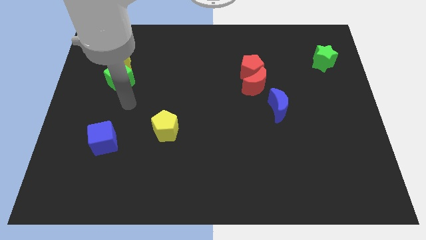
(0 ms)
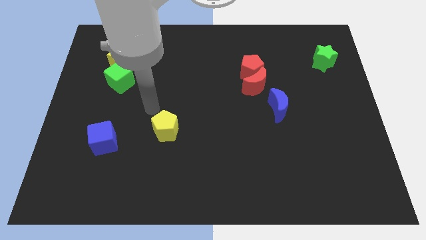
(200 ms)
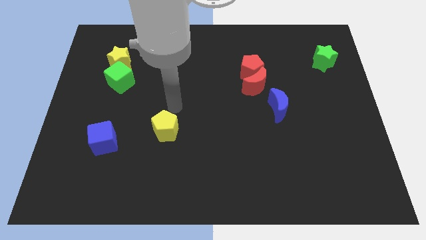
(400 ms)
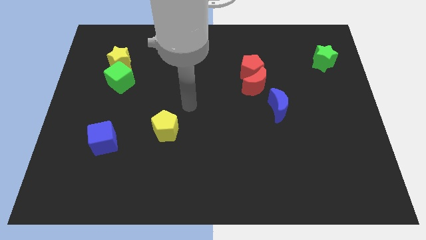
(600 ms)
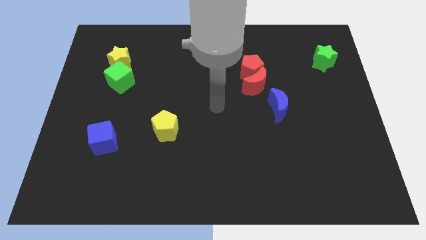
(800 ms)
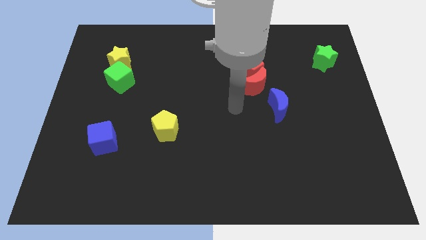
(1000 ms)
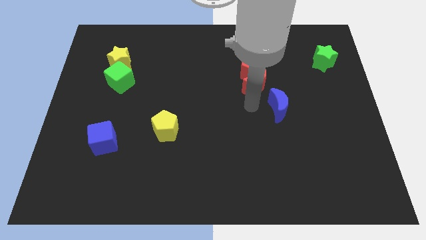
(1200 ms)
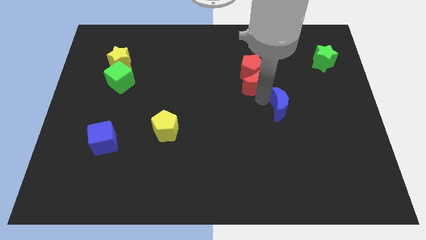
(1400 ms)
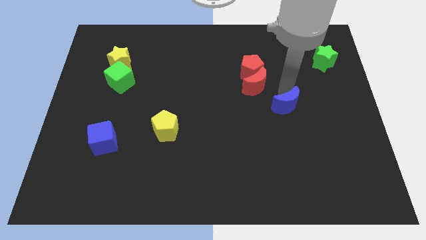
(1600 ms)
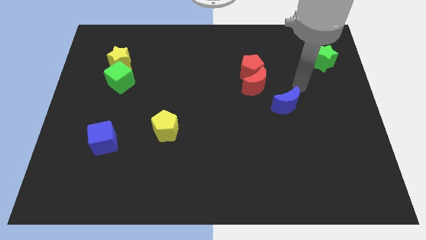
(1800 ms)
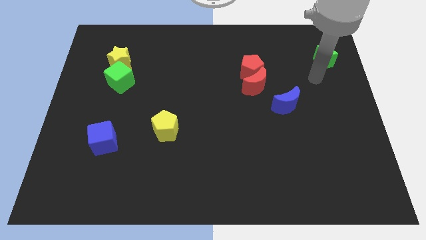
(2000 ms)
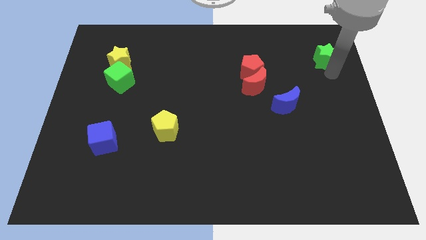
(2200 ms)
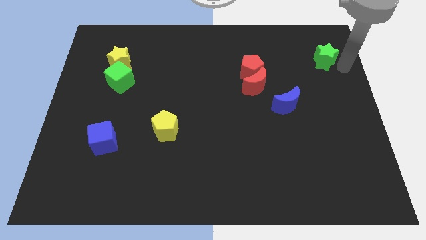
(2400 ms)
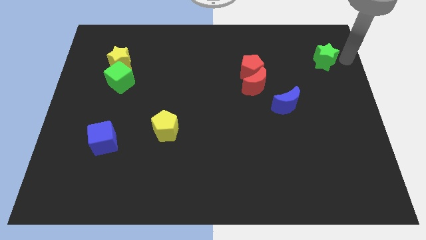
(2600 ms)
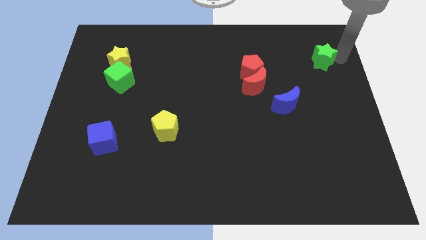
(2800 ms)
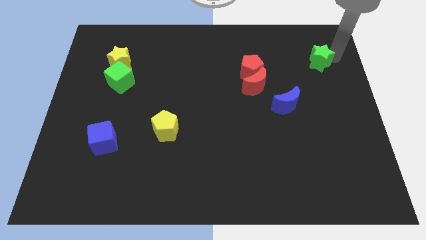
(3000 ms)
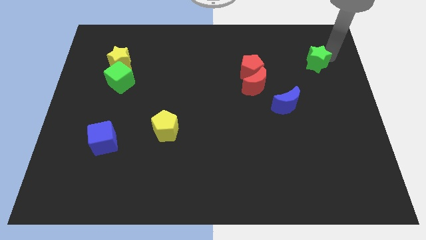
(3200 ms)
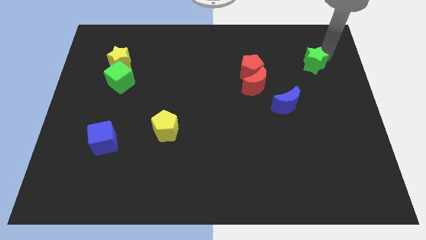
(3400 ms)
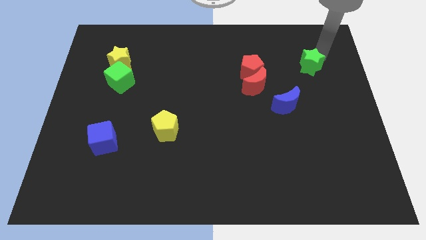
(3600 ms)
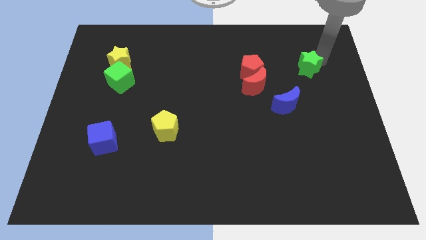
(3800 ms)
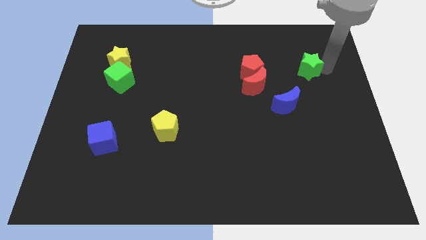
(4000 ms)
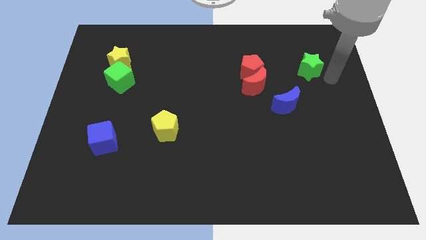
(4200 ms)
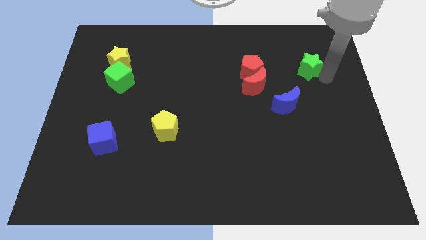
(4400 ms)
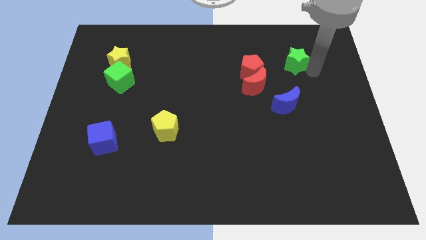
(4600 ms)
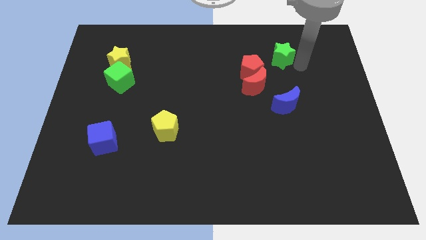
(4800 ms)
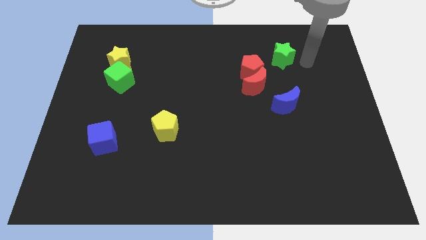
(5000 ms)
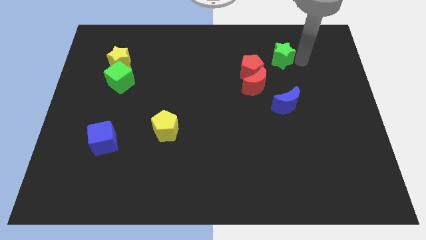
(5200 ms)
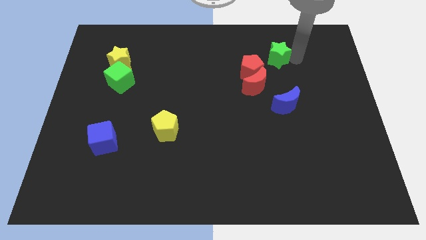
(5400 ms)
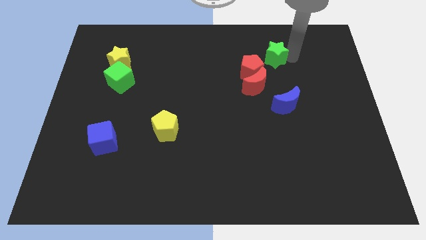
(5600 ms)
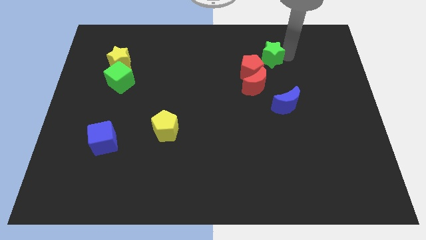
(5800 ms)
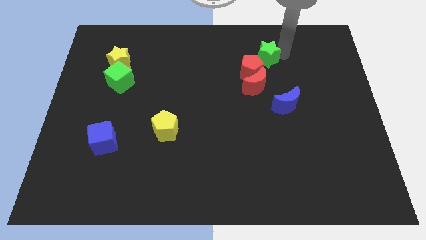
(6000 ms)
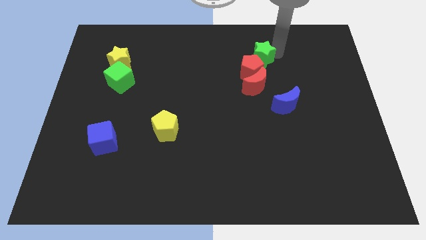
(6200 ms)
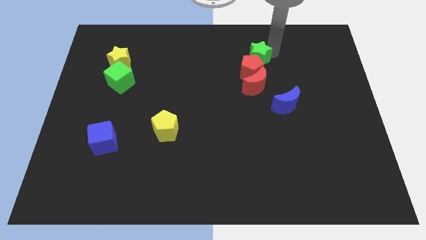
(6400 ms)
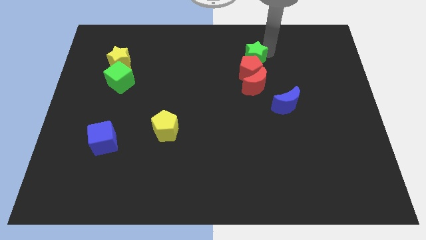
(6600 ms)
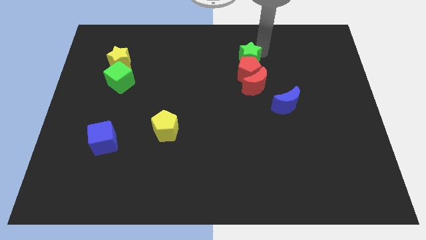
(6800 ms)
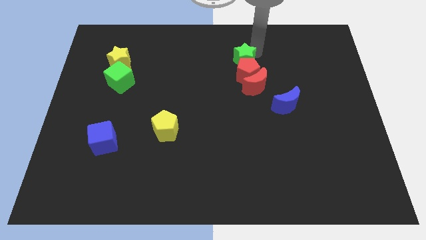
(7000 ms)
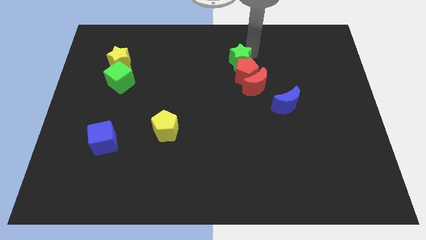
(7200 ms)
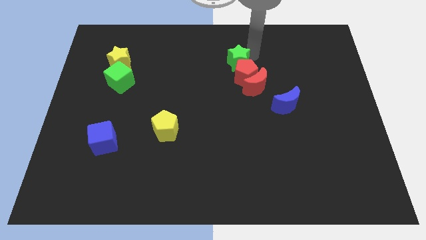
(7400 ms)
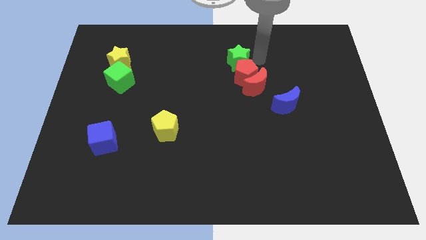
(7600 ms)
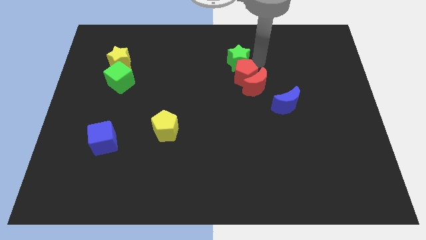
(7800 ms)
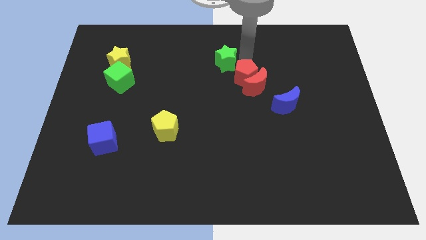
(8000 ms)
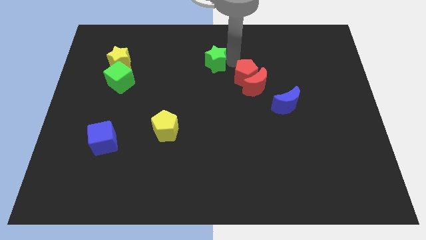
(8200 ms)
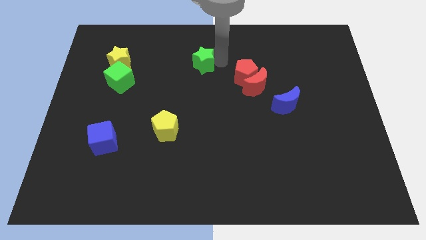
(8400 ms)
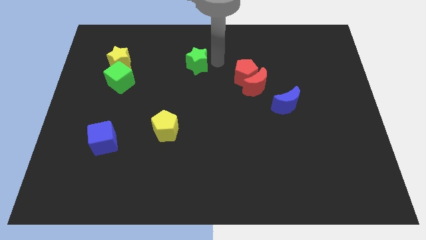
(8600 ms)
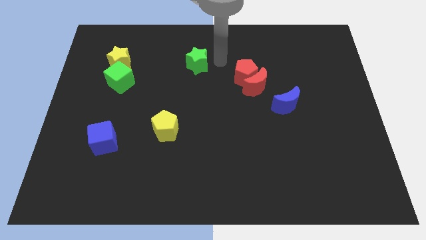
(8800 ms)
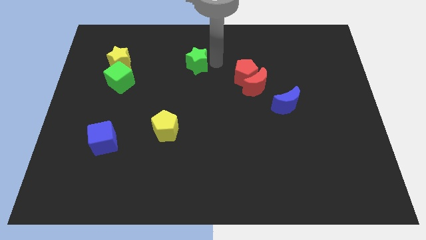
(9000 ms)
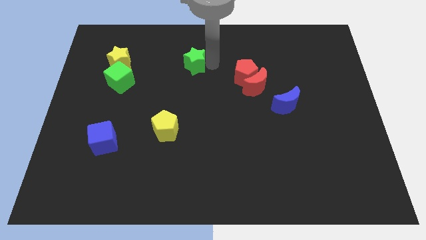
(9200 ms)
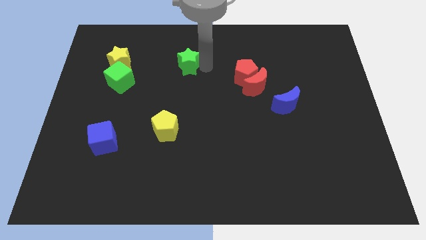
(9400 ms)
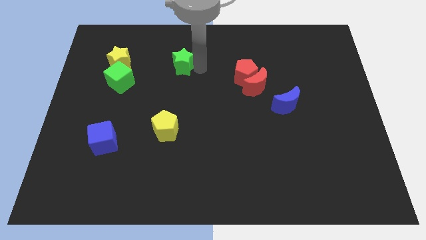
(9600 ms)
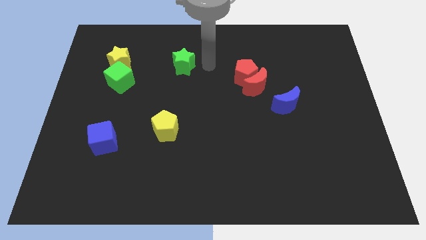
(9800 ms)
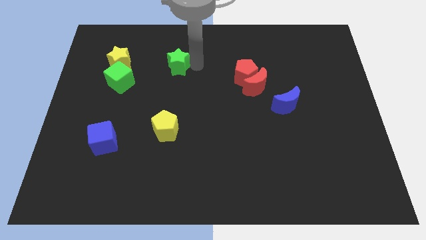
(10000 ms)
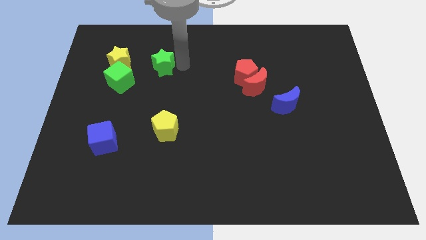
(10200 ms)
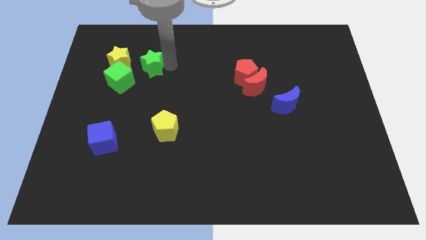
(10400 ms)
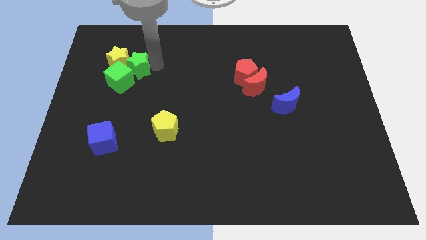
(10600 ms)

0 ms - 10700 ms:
move the green star to the green cube

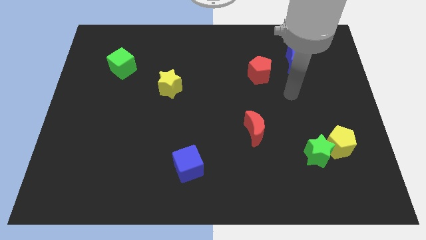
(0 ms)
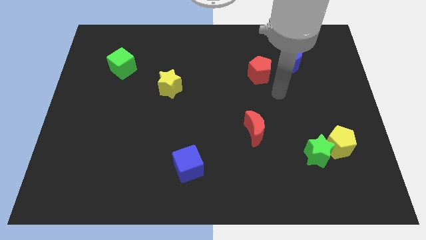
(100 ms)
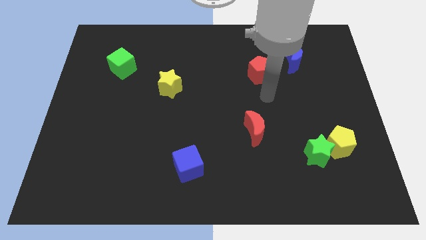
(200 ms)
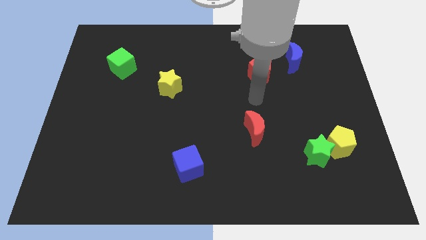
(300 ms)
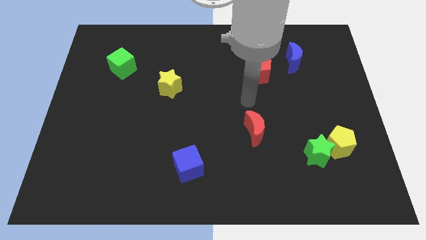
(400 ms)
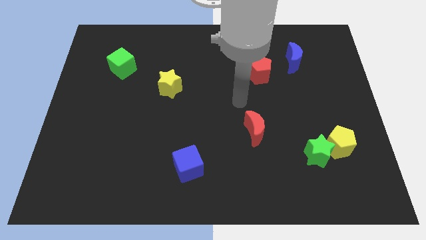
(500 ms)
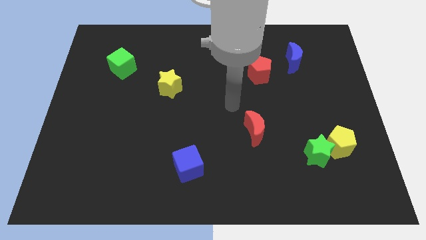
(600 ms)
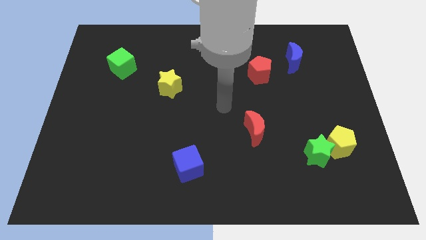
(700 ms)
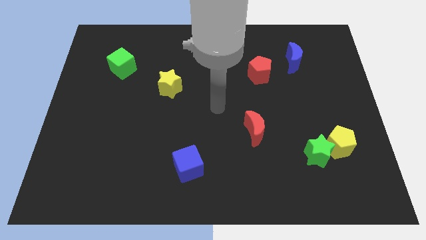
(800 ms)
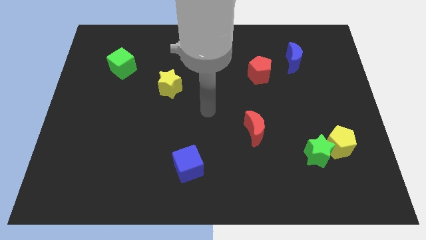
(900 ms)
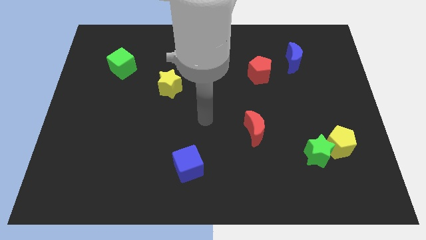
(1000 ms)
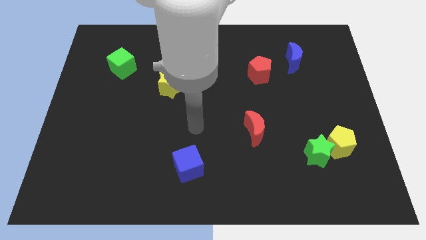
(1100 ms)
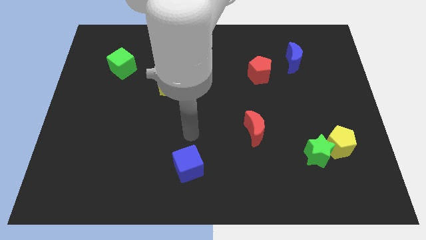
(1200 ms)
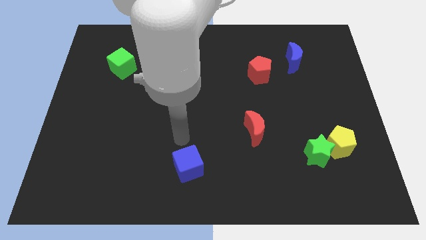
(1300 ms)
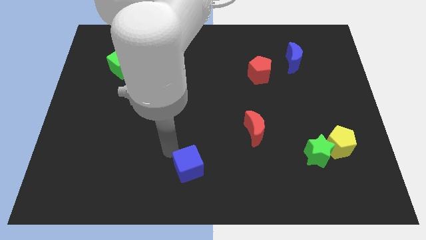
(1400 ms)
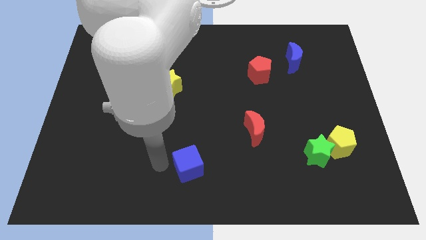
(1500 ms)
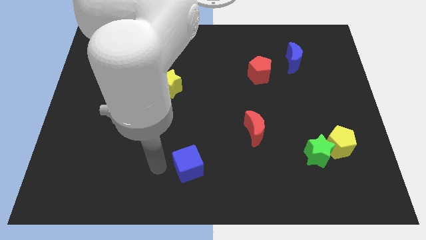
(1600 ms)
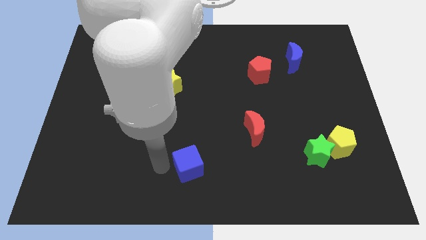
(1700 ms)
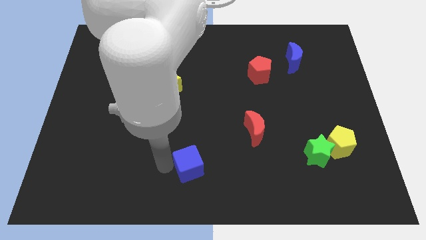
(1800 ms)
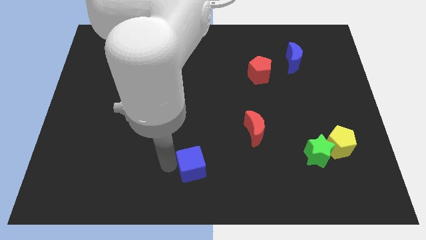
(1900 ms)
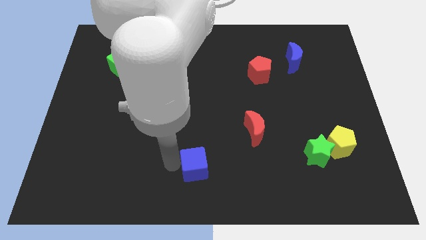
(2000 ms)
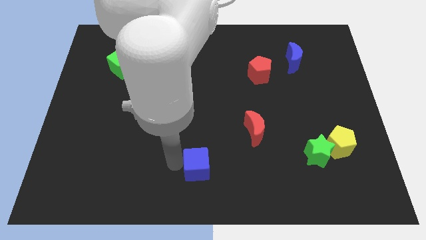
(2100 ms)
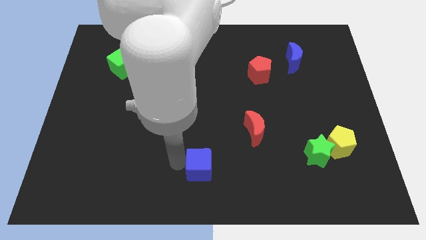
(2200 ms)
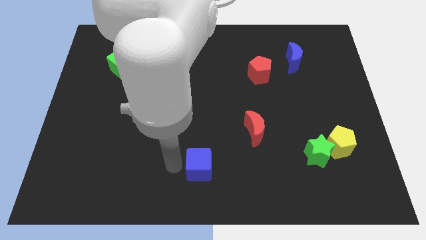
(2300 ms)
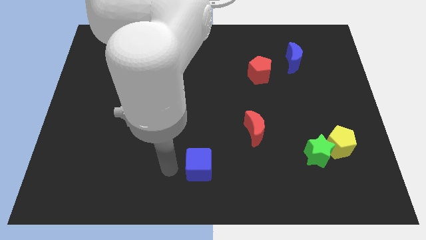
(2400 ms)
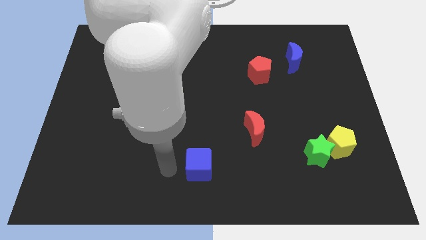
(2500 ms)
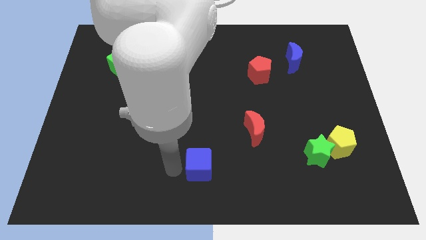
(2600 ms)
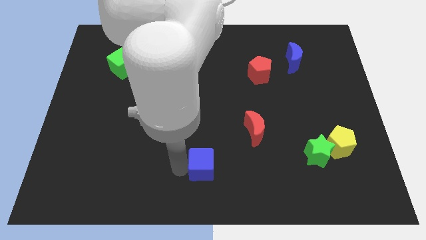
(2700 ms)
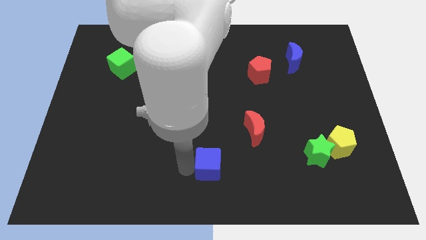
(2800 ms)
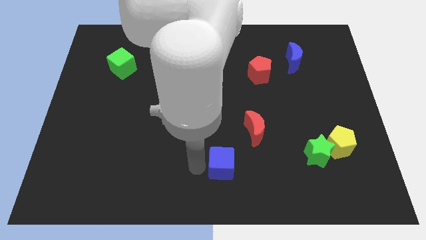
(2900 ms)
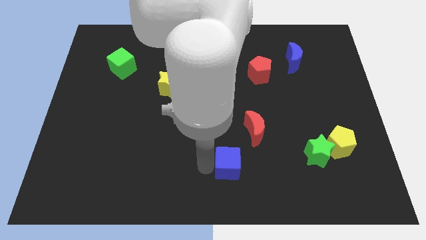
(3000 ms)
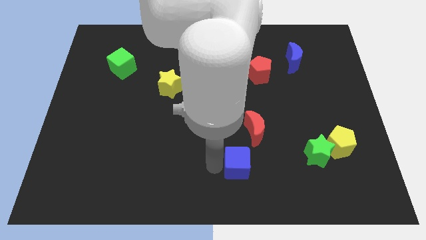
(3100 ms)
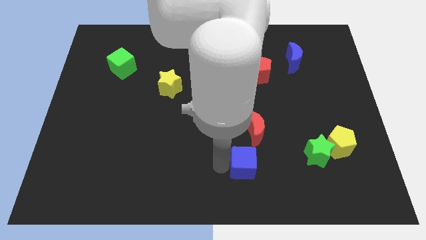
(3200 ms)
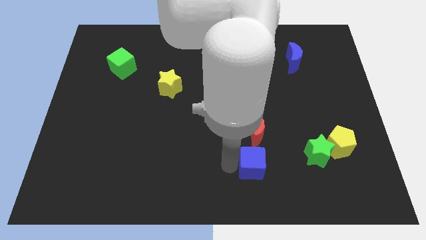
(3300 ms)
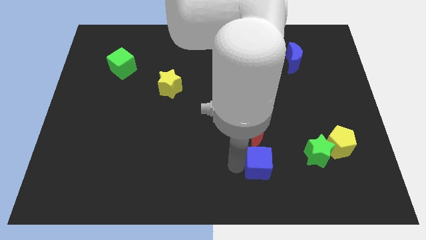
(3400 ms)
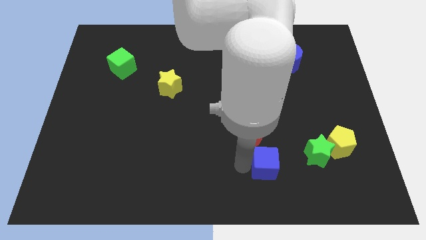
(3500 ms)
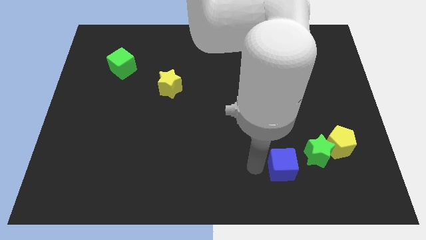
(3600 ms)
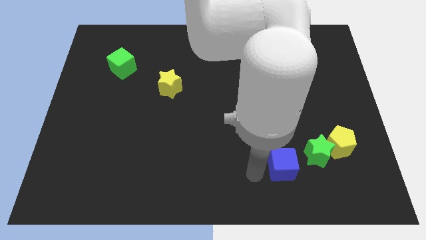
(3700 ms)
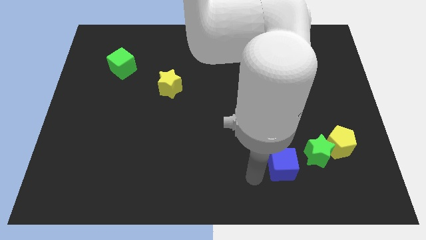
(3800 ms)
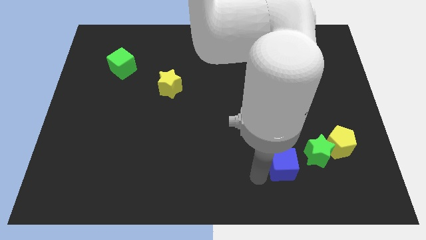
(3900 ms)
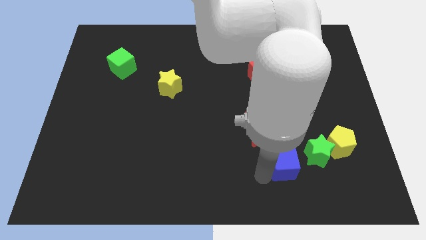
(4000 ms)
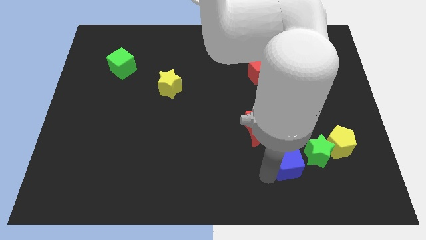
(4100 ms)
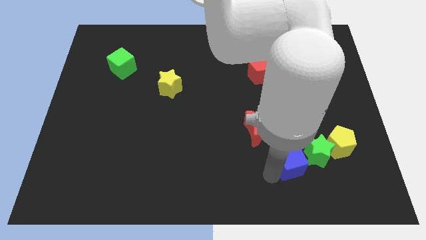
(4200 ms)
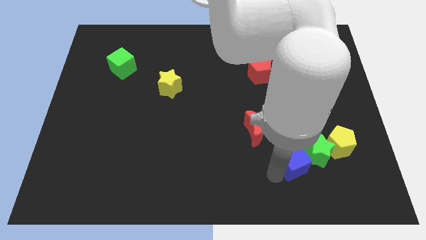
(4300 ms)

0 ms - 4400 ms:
slide the blue cube close to the green star
